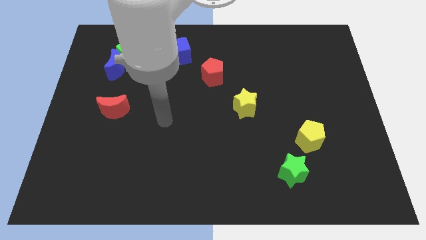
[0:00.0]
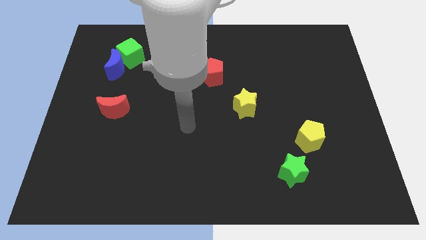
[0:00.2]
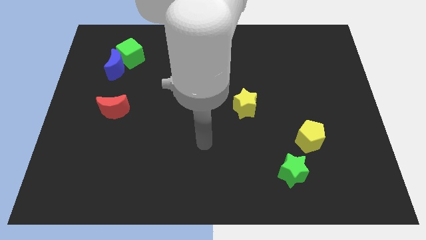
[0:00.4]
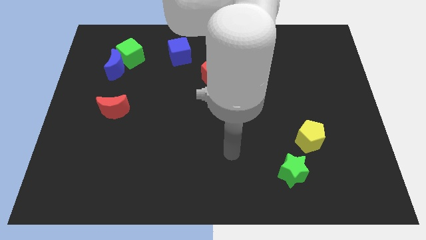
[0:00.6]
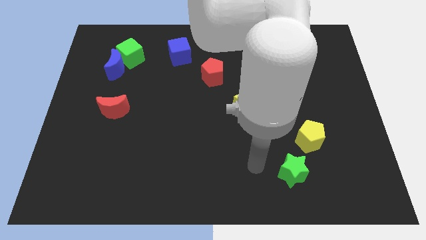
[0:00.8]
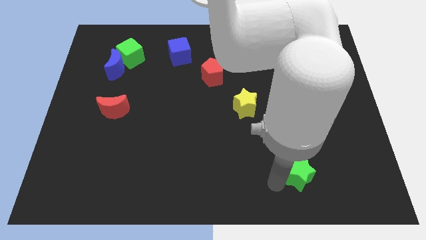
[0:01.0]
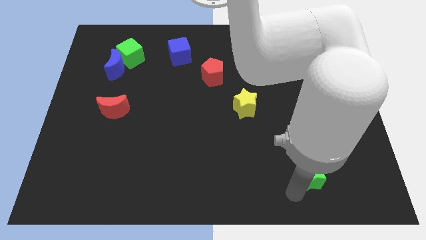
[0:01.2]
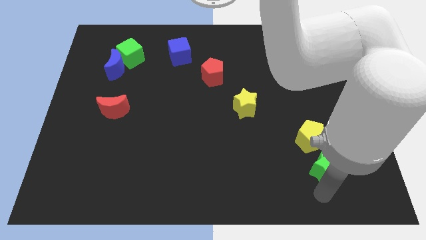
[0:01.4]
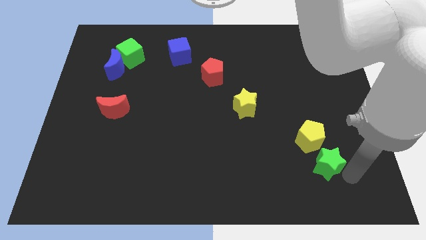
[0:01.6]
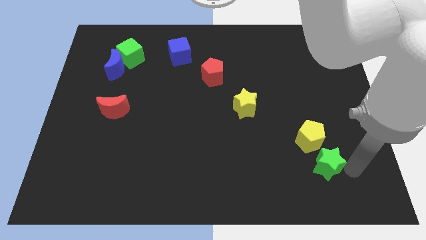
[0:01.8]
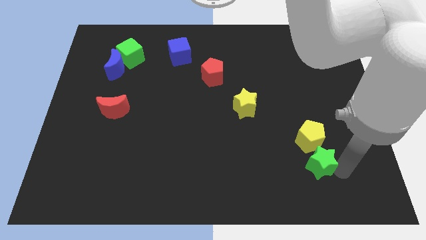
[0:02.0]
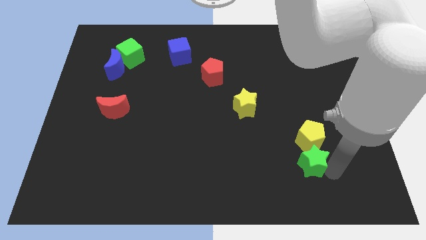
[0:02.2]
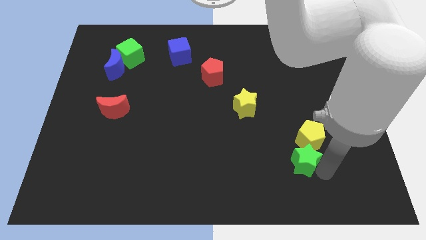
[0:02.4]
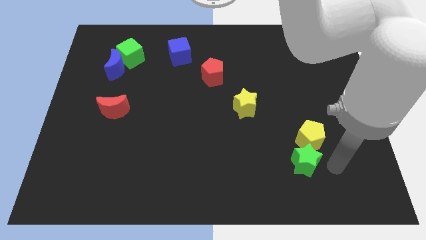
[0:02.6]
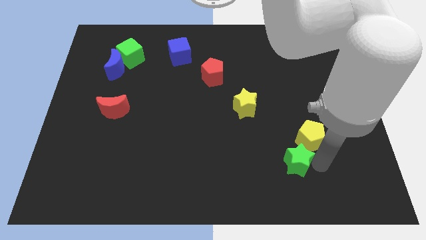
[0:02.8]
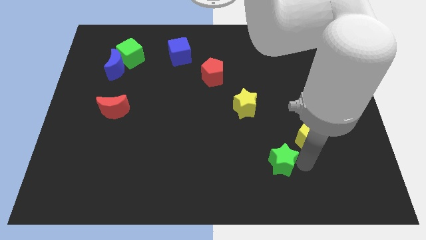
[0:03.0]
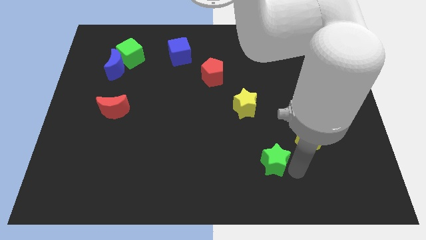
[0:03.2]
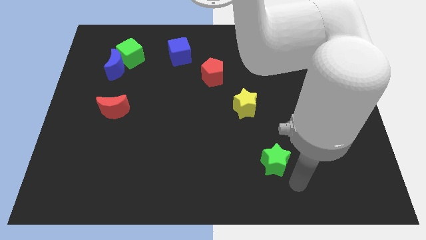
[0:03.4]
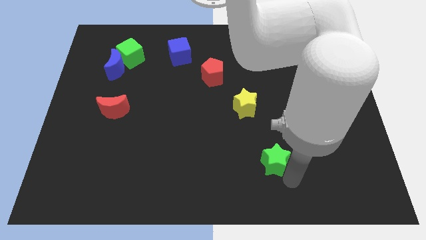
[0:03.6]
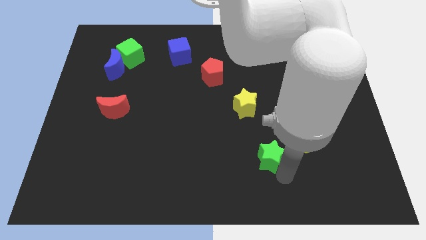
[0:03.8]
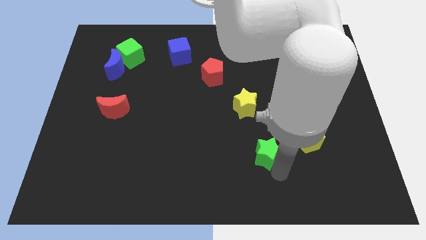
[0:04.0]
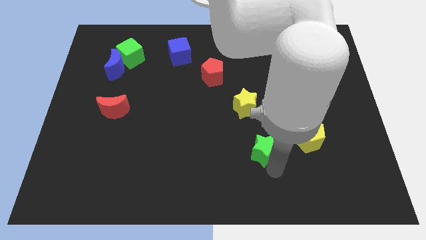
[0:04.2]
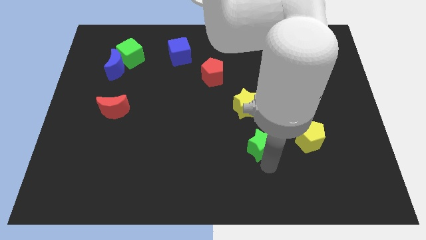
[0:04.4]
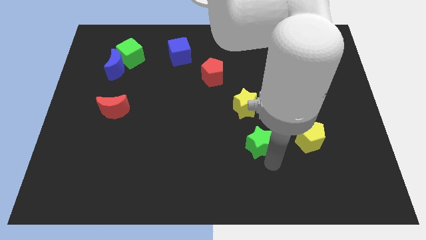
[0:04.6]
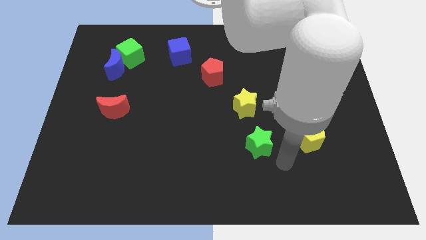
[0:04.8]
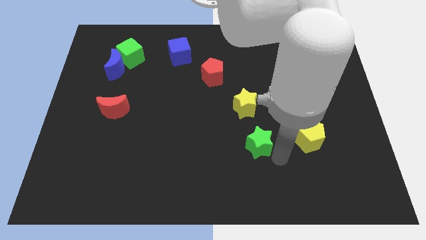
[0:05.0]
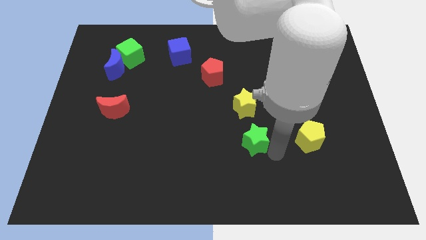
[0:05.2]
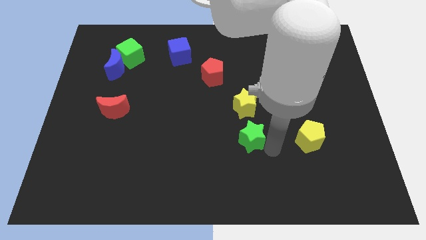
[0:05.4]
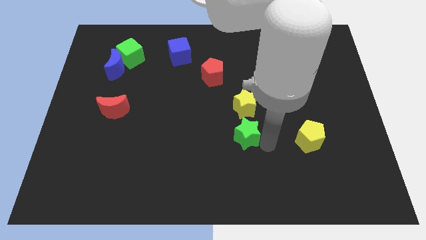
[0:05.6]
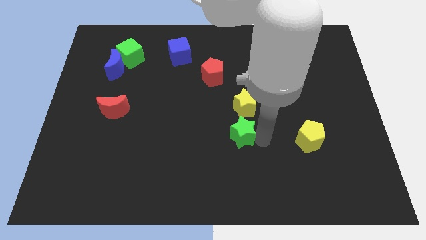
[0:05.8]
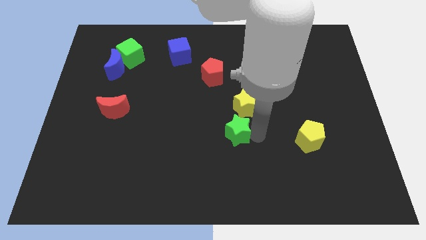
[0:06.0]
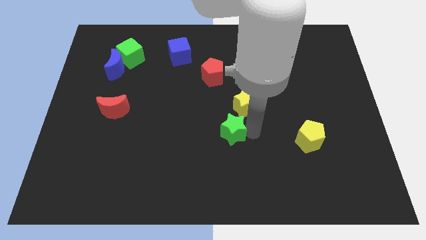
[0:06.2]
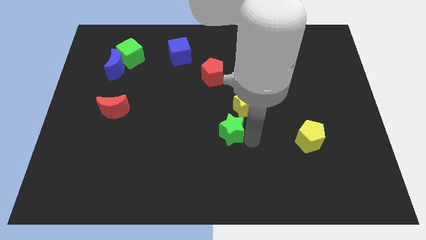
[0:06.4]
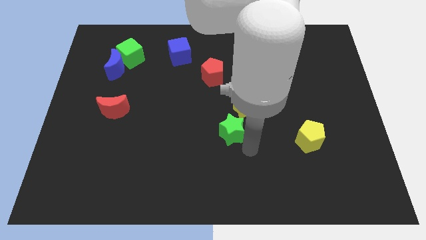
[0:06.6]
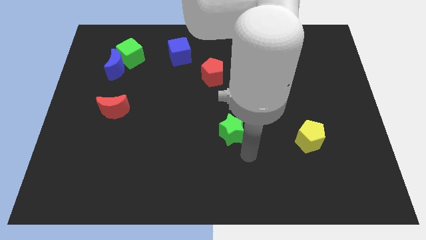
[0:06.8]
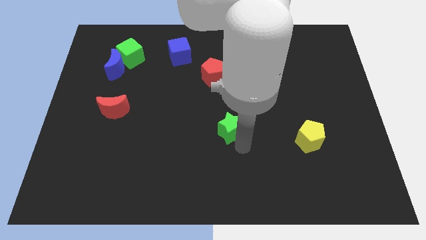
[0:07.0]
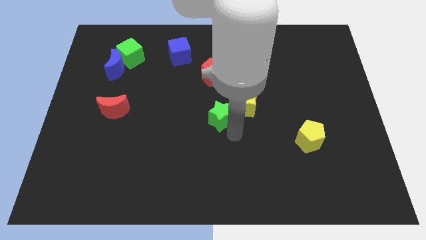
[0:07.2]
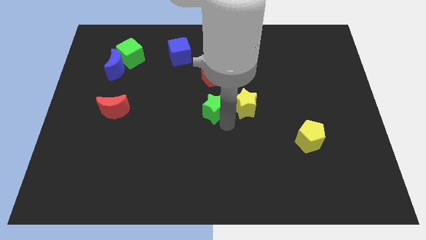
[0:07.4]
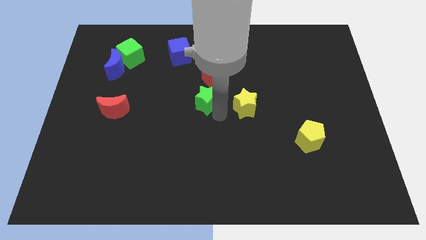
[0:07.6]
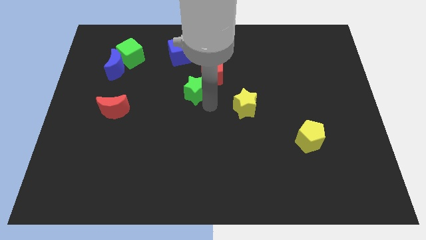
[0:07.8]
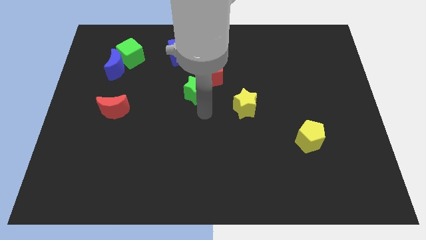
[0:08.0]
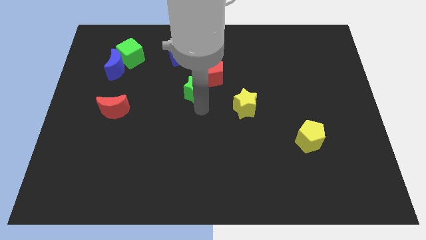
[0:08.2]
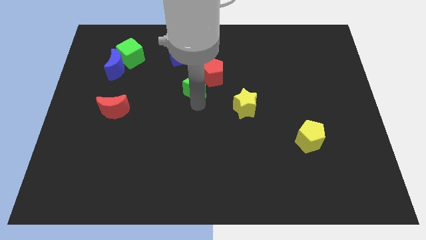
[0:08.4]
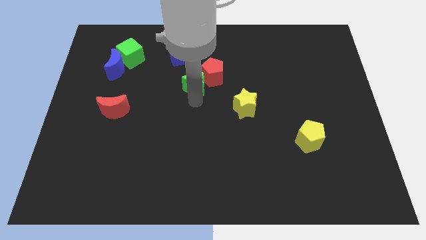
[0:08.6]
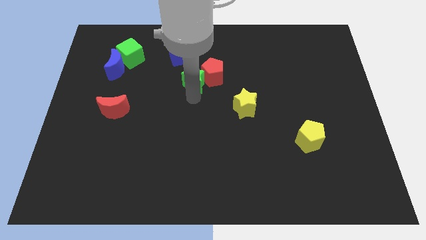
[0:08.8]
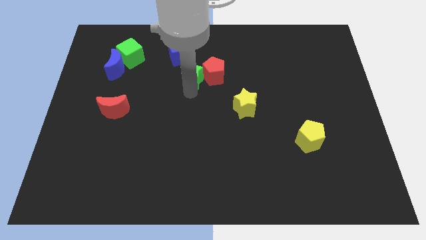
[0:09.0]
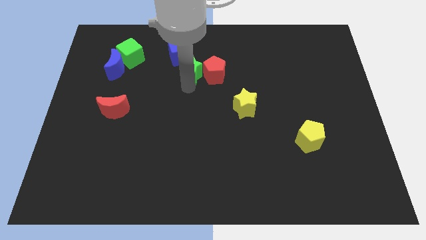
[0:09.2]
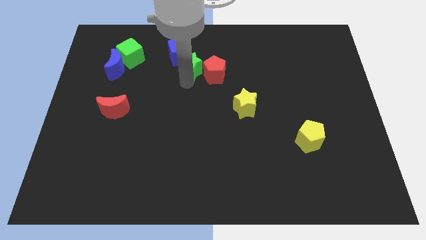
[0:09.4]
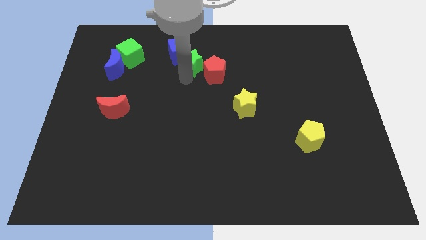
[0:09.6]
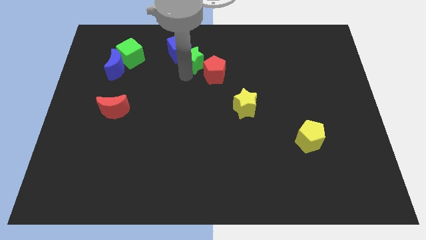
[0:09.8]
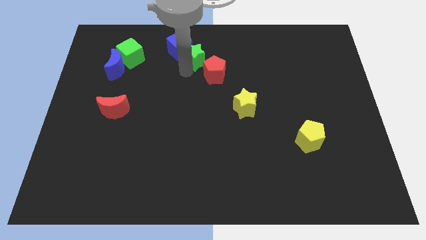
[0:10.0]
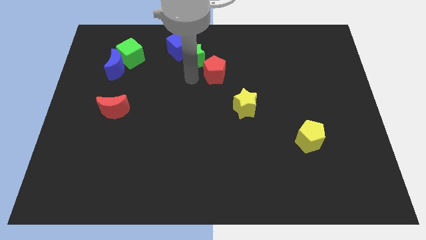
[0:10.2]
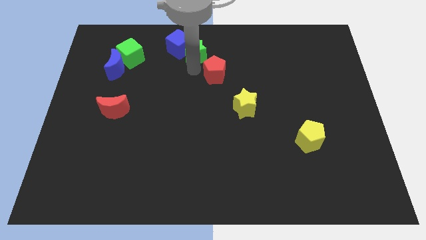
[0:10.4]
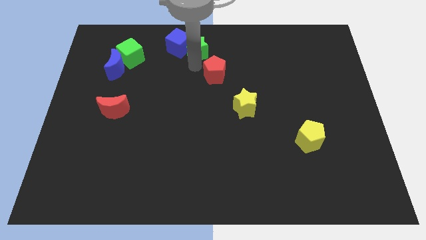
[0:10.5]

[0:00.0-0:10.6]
put the green star to the top
